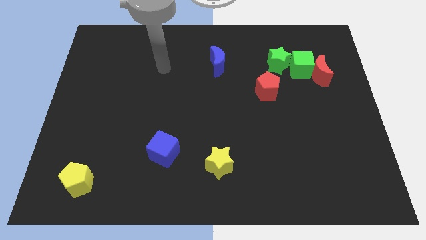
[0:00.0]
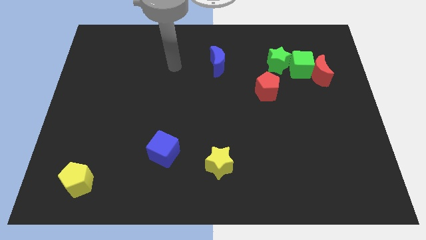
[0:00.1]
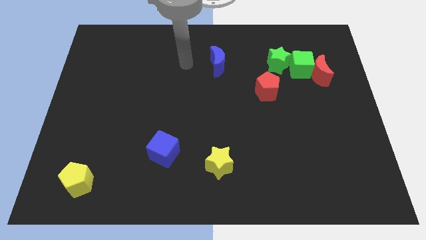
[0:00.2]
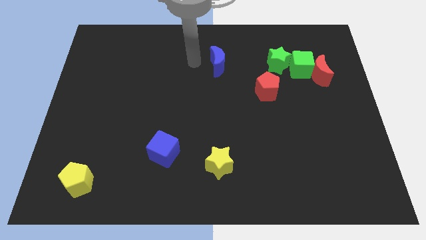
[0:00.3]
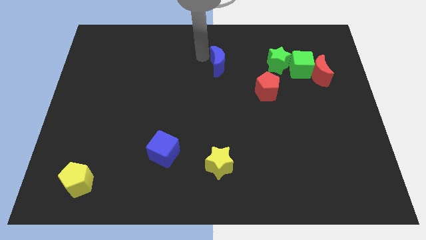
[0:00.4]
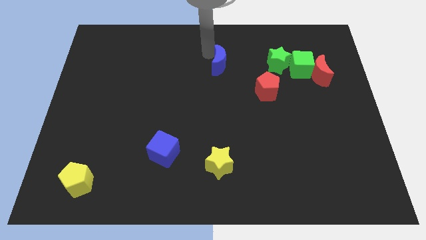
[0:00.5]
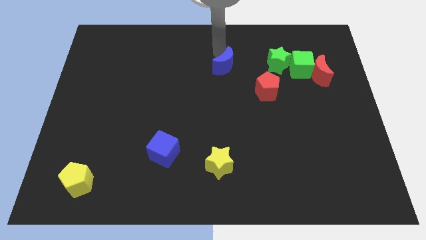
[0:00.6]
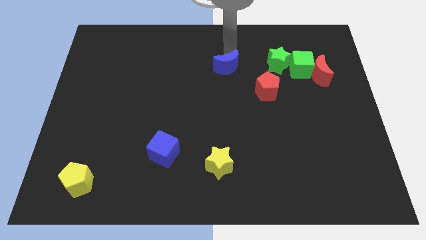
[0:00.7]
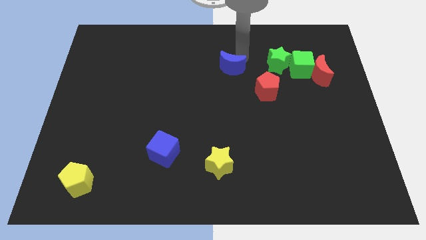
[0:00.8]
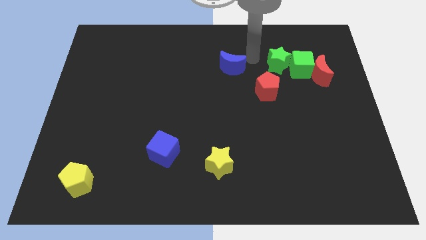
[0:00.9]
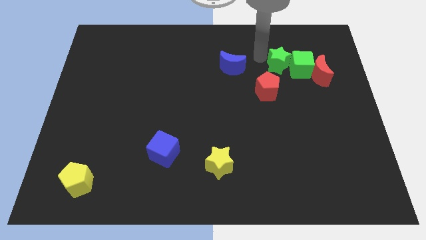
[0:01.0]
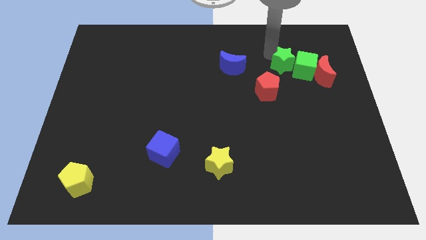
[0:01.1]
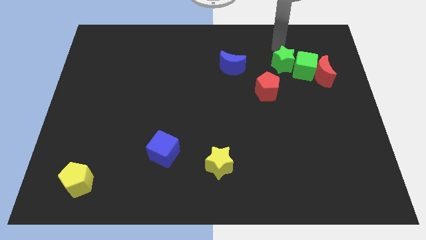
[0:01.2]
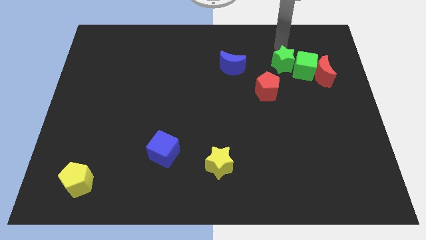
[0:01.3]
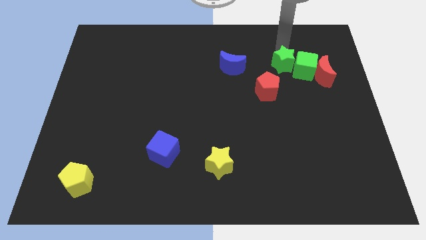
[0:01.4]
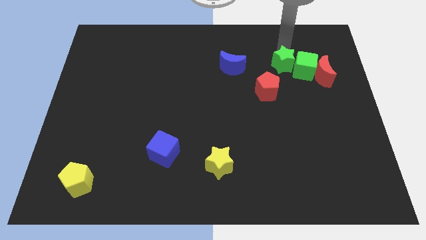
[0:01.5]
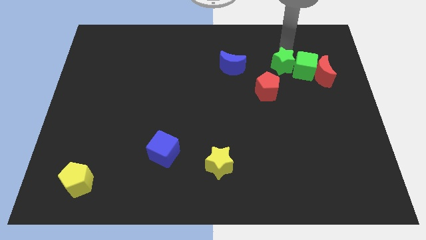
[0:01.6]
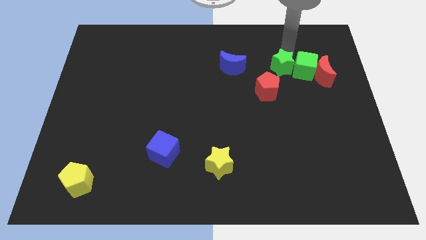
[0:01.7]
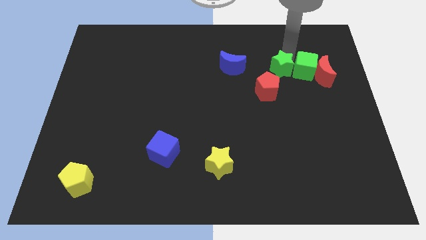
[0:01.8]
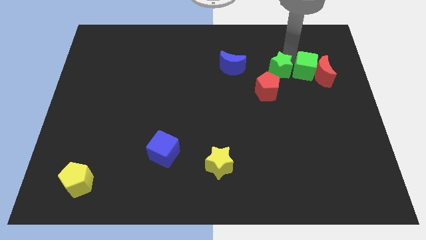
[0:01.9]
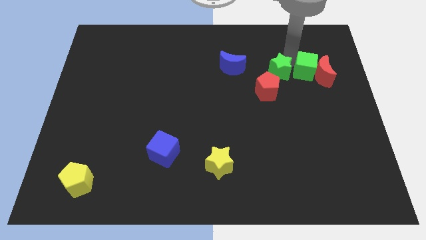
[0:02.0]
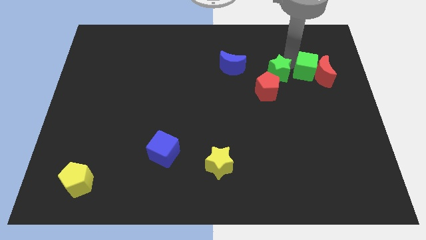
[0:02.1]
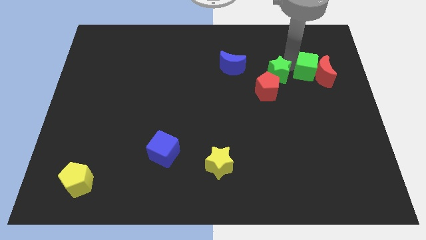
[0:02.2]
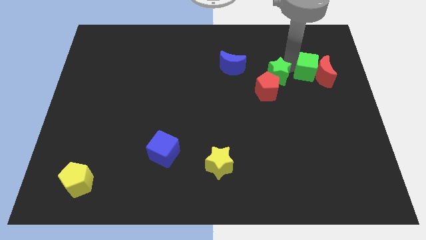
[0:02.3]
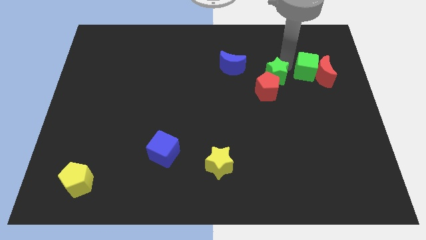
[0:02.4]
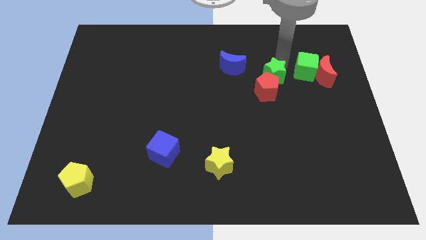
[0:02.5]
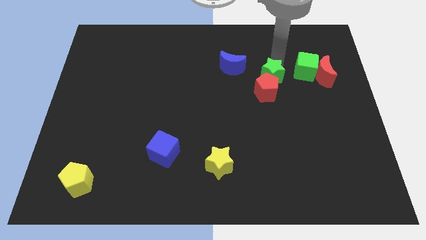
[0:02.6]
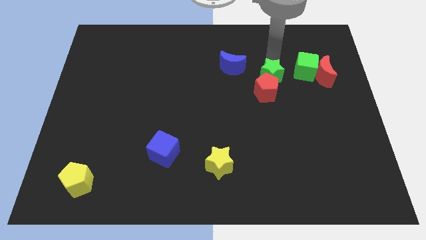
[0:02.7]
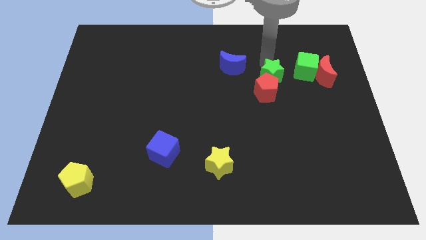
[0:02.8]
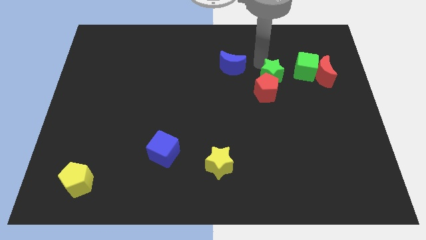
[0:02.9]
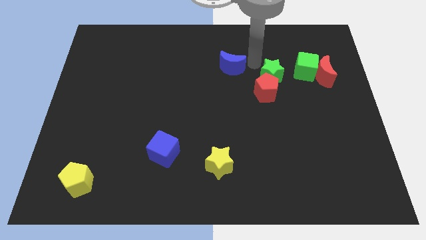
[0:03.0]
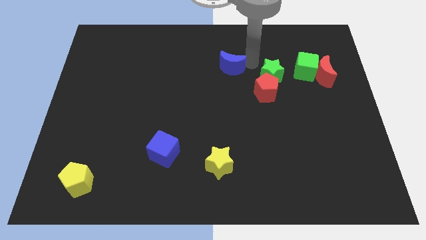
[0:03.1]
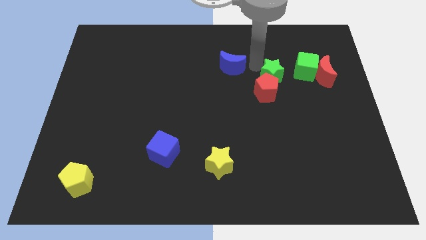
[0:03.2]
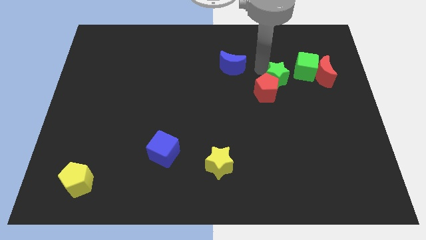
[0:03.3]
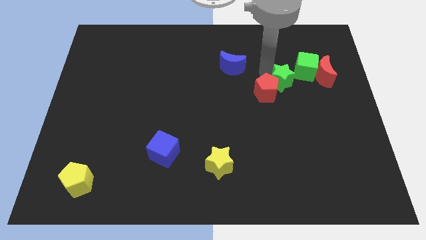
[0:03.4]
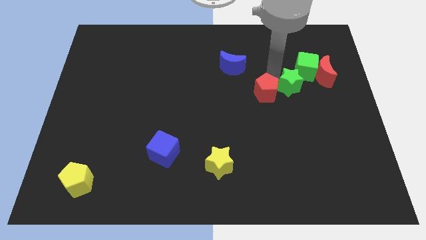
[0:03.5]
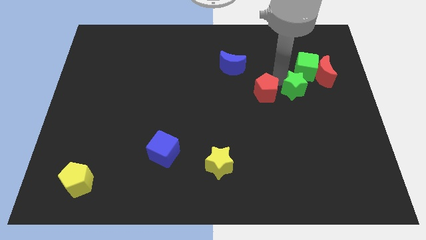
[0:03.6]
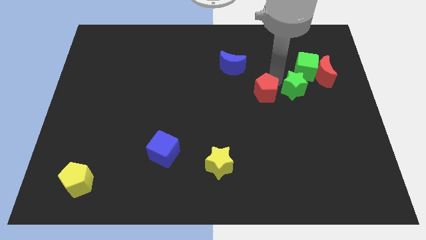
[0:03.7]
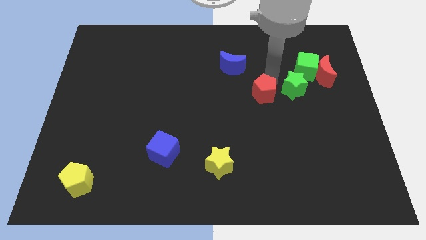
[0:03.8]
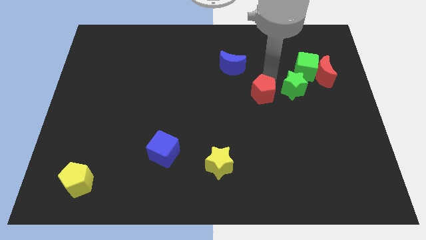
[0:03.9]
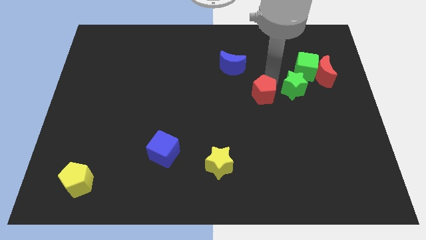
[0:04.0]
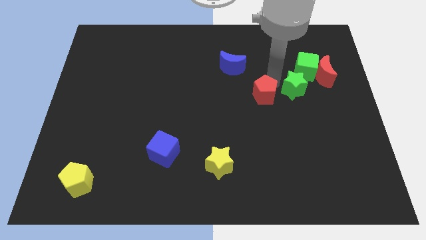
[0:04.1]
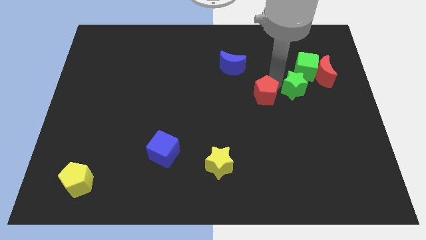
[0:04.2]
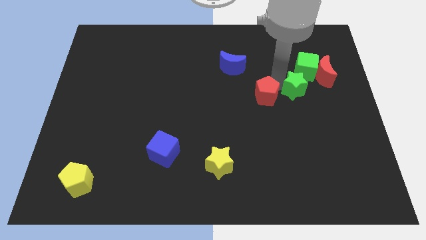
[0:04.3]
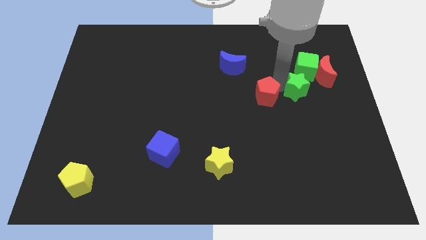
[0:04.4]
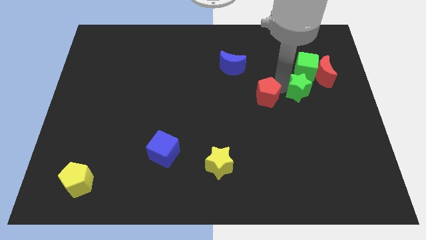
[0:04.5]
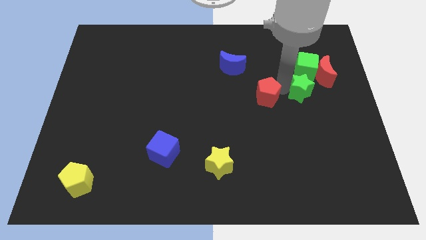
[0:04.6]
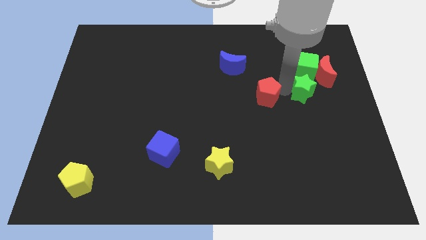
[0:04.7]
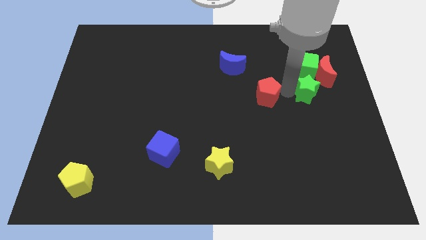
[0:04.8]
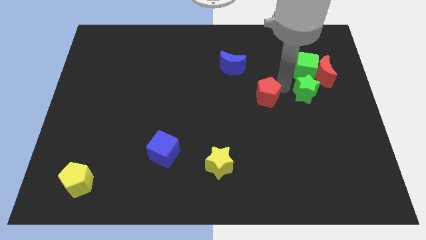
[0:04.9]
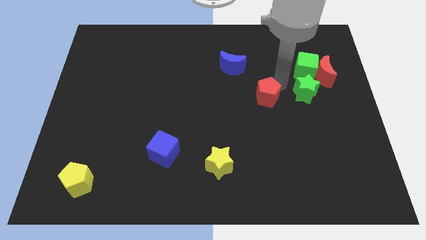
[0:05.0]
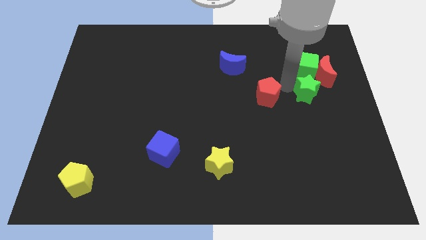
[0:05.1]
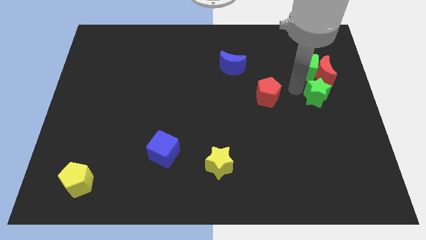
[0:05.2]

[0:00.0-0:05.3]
put the green star to the center right
